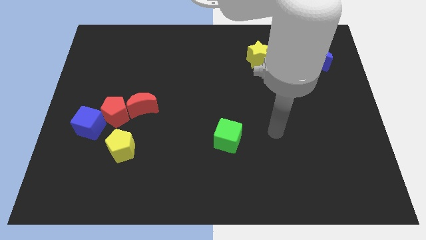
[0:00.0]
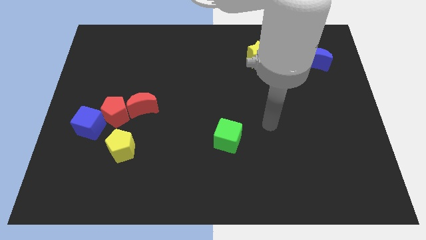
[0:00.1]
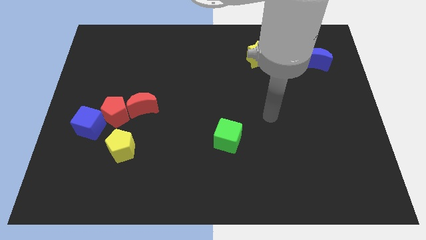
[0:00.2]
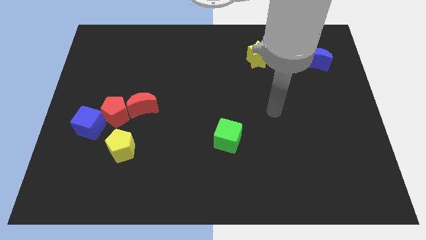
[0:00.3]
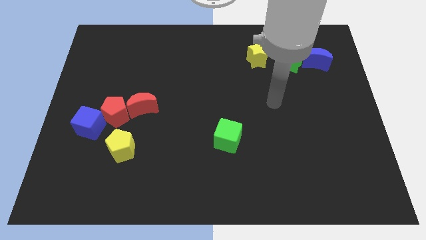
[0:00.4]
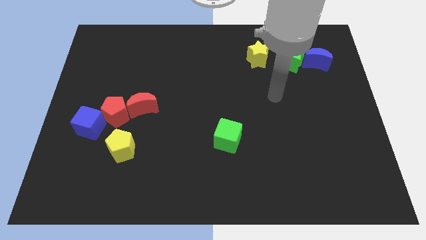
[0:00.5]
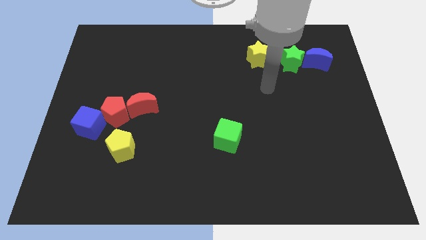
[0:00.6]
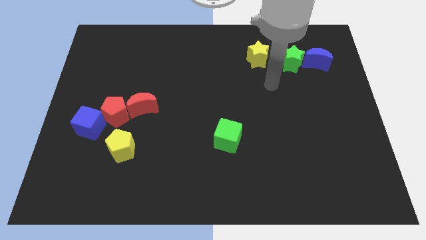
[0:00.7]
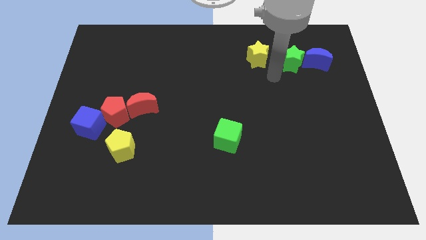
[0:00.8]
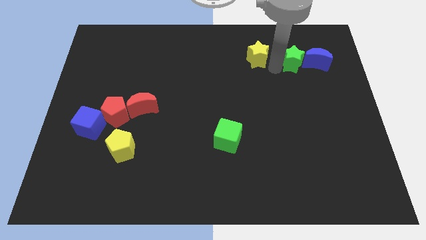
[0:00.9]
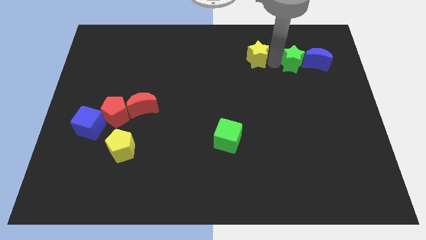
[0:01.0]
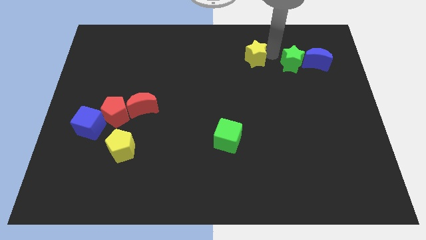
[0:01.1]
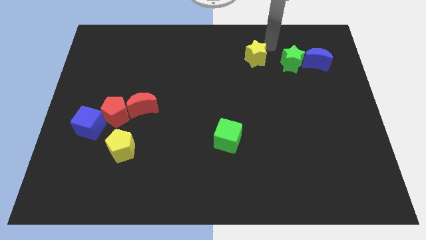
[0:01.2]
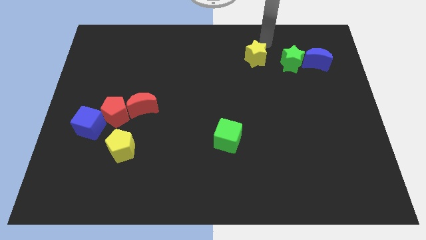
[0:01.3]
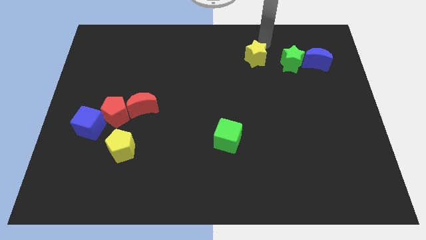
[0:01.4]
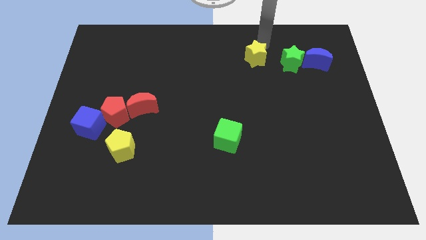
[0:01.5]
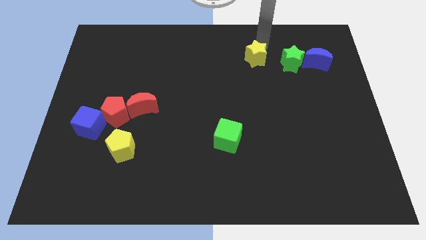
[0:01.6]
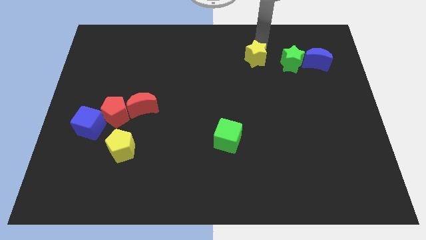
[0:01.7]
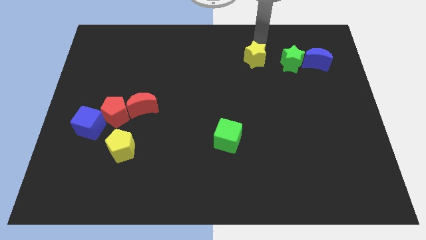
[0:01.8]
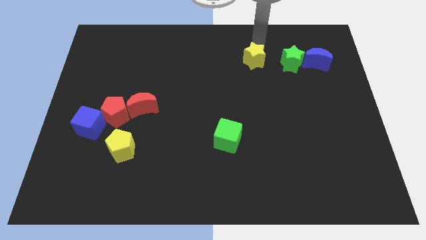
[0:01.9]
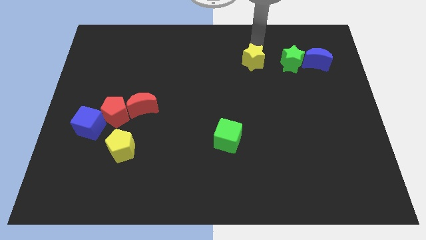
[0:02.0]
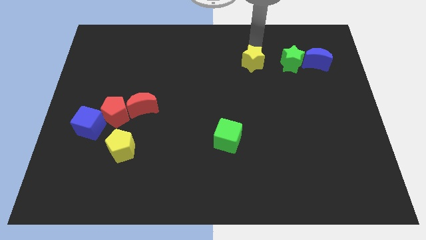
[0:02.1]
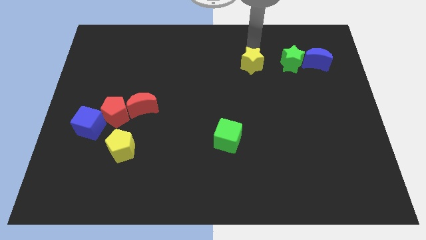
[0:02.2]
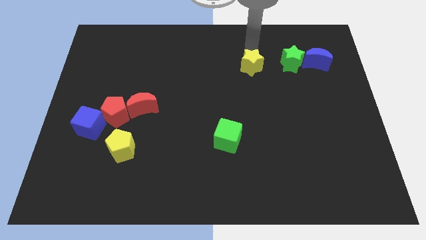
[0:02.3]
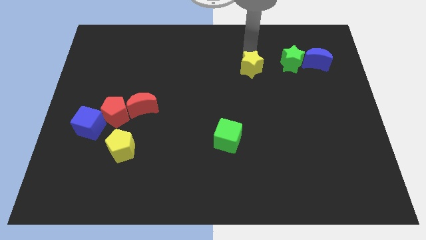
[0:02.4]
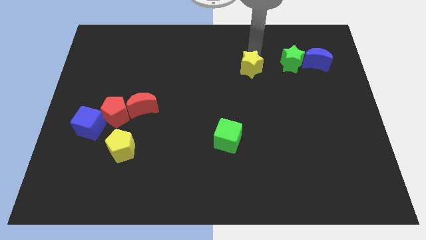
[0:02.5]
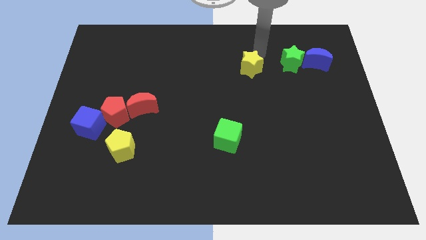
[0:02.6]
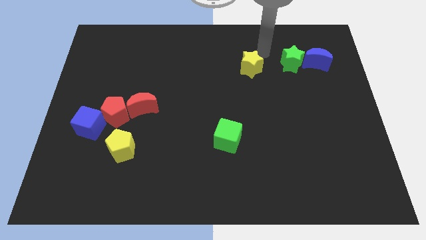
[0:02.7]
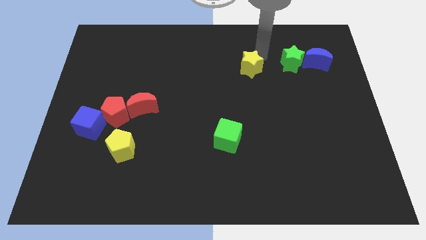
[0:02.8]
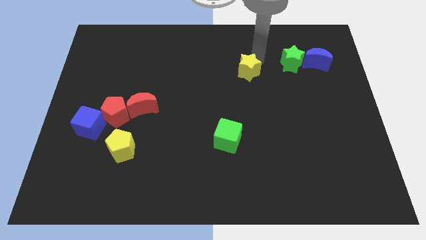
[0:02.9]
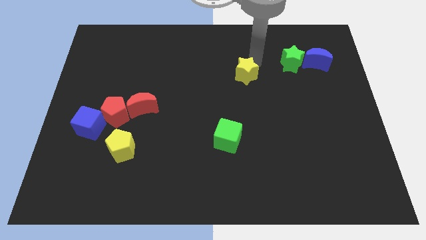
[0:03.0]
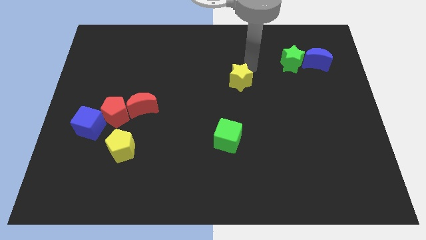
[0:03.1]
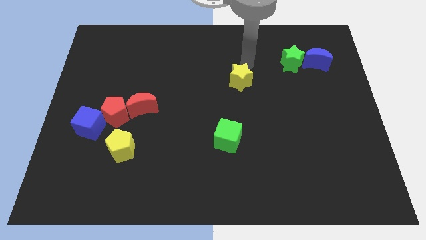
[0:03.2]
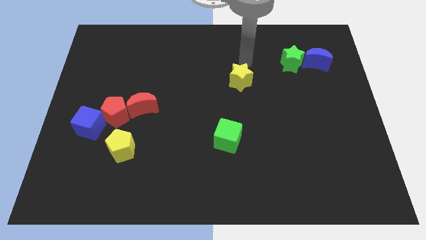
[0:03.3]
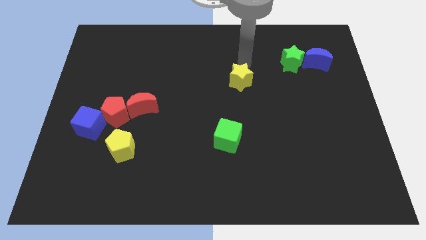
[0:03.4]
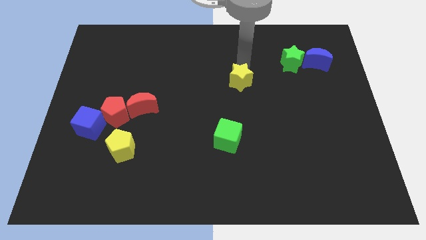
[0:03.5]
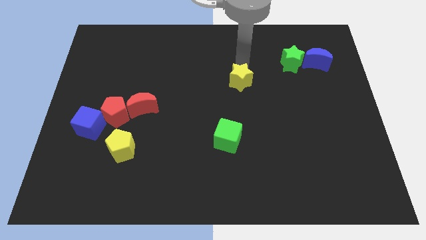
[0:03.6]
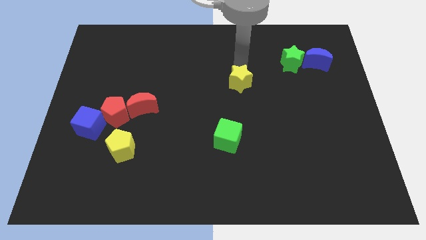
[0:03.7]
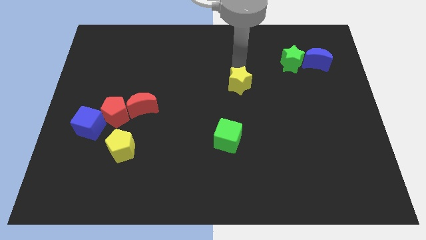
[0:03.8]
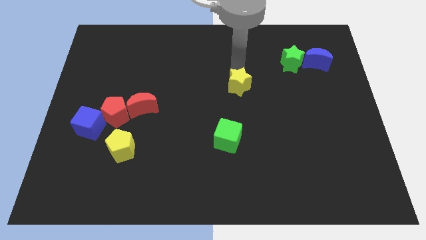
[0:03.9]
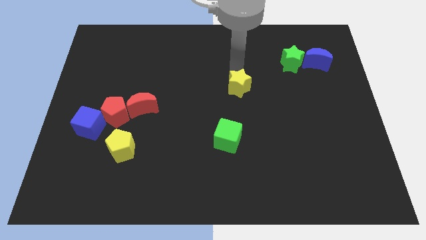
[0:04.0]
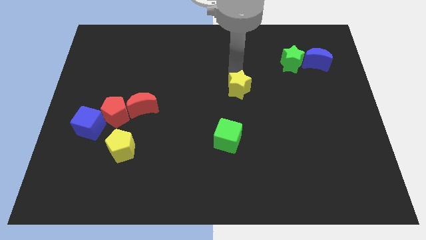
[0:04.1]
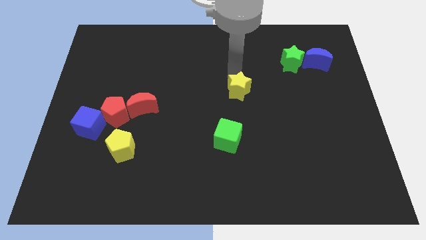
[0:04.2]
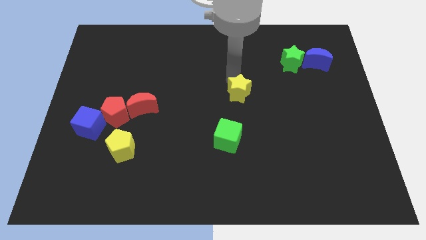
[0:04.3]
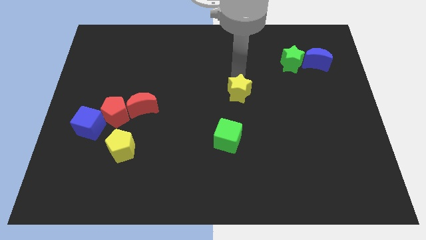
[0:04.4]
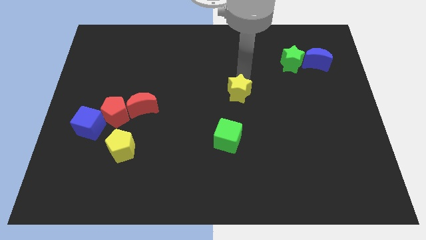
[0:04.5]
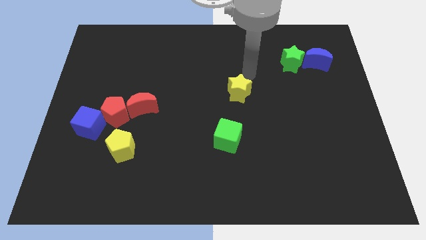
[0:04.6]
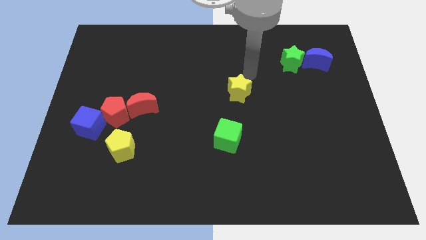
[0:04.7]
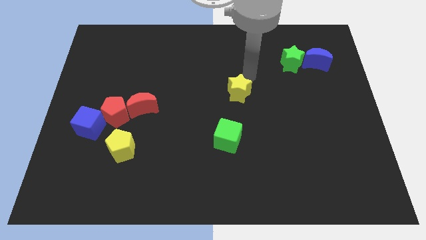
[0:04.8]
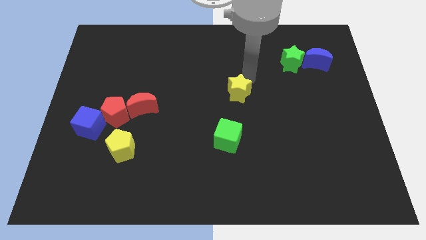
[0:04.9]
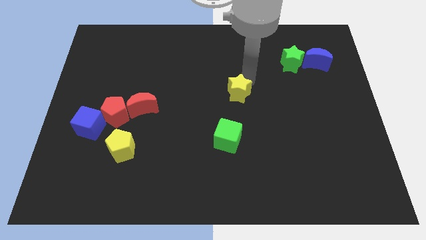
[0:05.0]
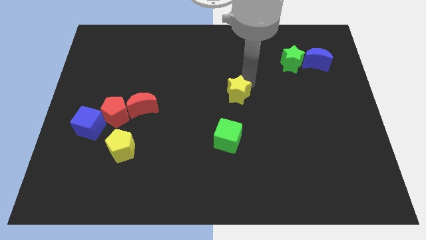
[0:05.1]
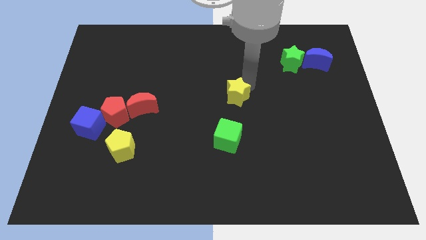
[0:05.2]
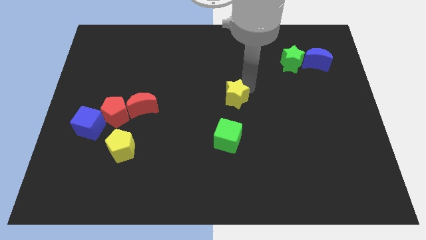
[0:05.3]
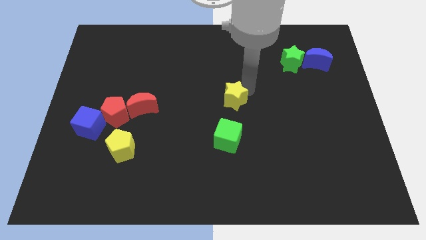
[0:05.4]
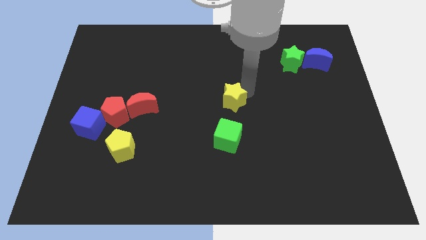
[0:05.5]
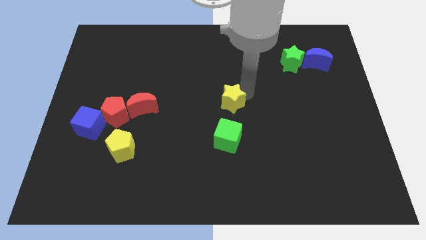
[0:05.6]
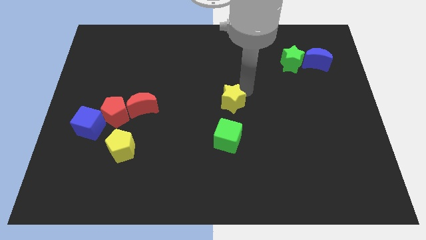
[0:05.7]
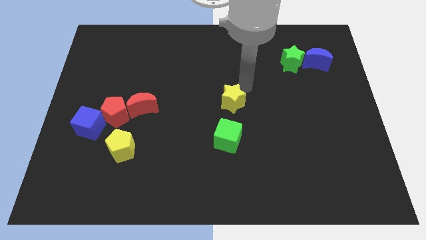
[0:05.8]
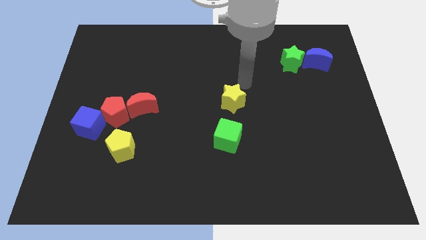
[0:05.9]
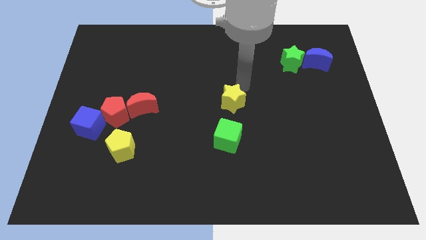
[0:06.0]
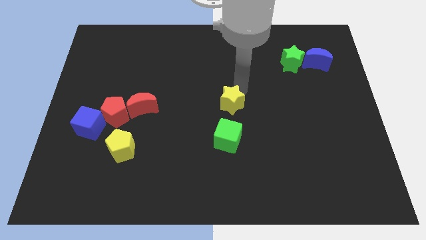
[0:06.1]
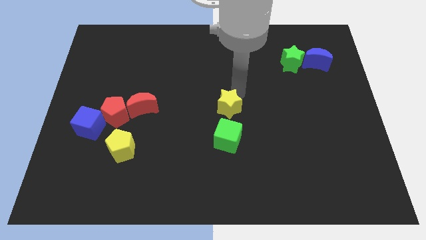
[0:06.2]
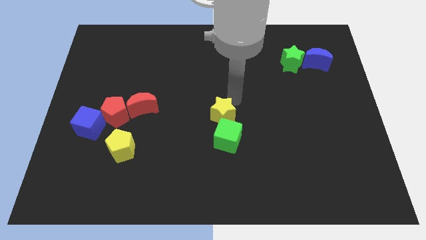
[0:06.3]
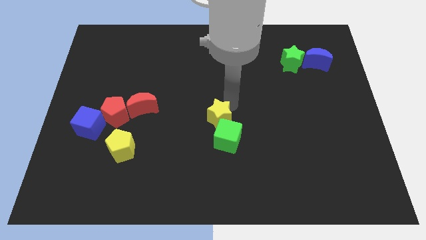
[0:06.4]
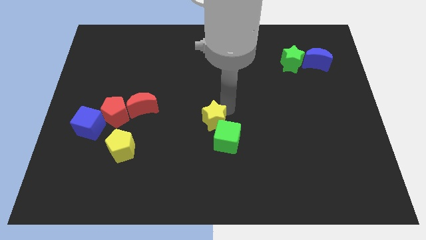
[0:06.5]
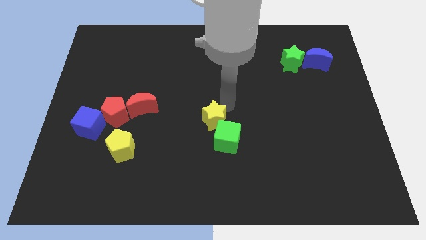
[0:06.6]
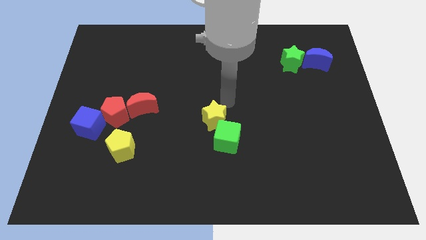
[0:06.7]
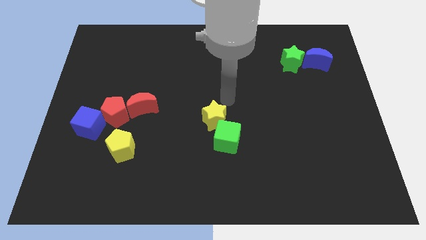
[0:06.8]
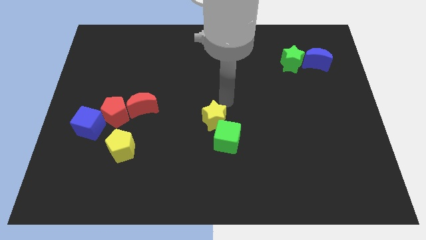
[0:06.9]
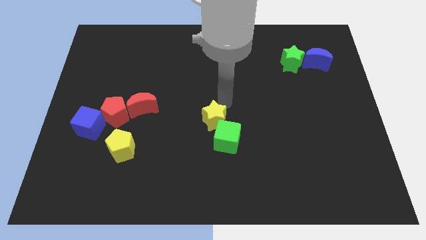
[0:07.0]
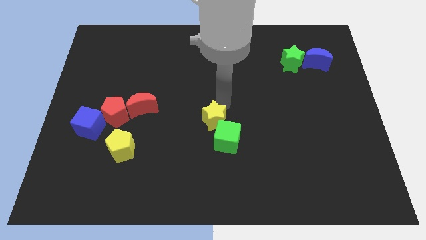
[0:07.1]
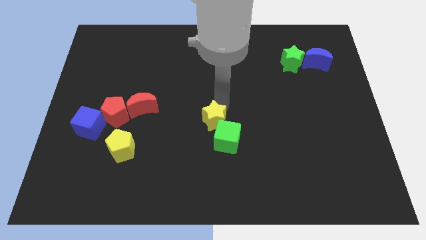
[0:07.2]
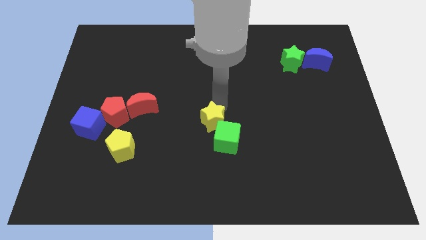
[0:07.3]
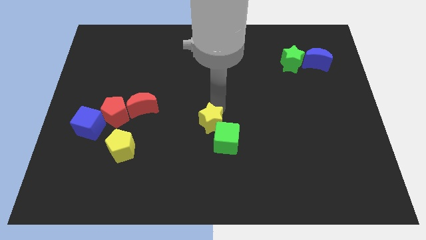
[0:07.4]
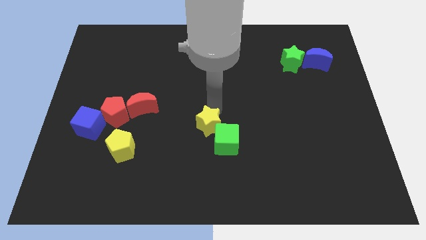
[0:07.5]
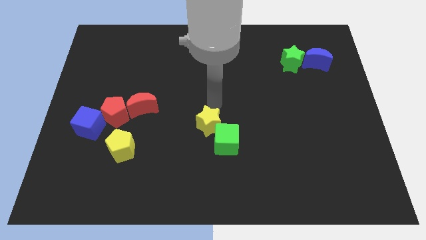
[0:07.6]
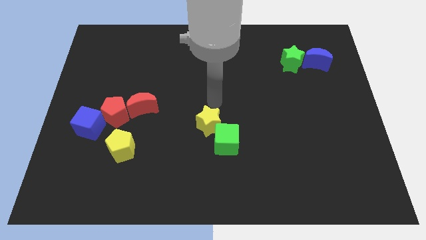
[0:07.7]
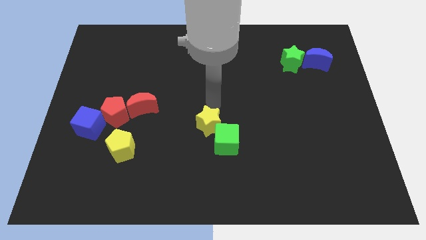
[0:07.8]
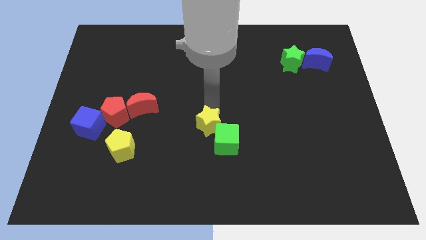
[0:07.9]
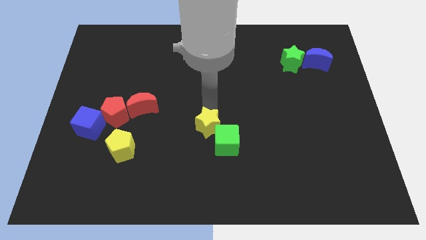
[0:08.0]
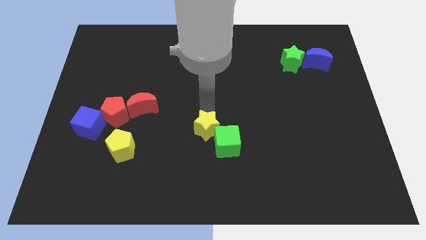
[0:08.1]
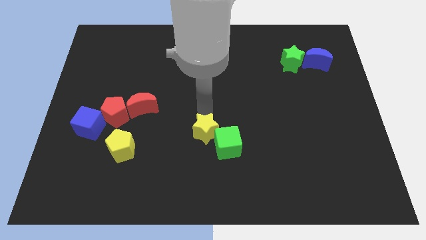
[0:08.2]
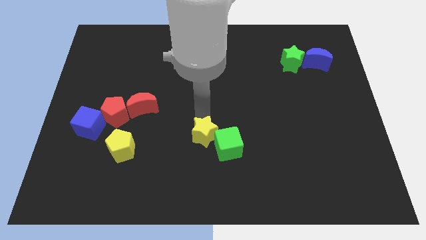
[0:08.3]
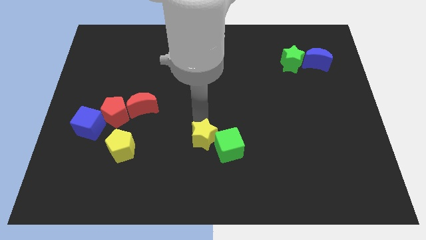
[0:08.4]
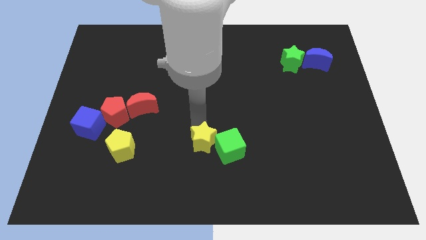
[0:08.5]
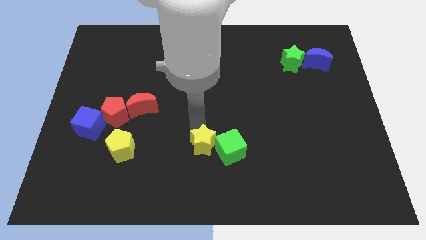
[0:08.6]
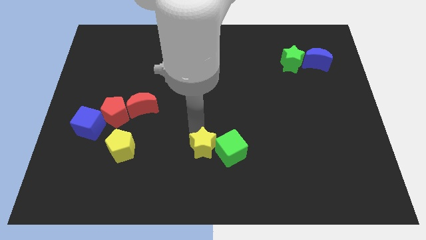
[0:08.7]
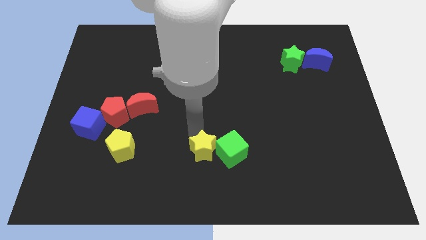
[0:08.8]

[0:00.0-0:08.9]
move the yellow star to the bottom left side of the green cube
